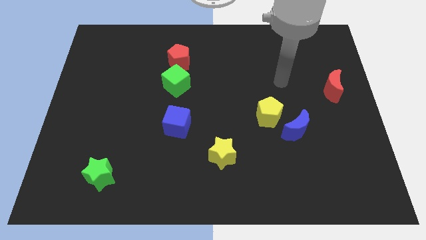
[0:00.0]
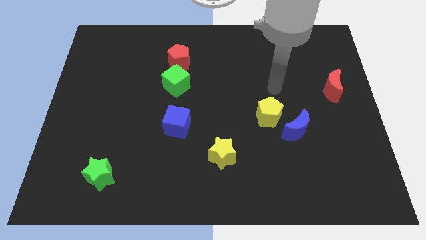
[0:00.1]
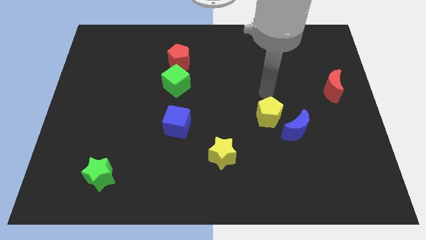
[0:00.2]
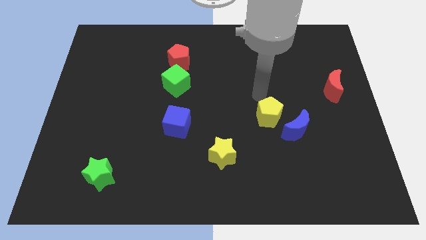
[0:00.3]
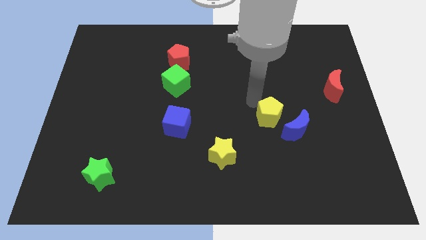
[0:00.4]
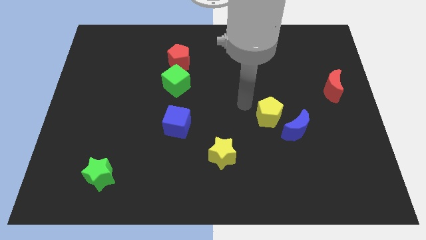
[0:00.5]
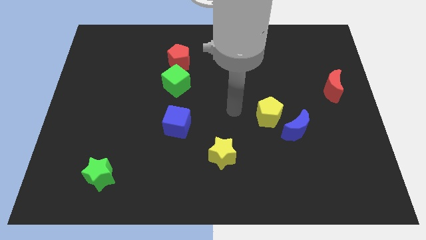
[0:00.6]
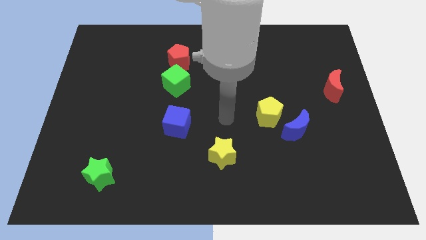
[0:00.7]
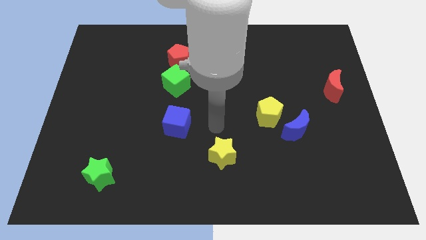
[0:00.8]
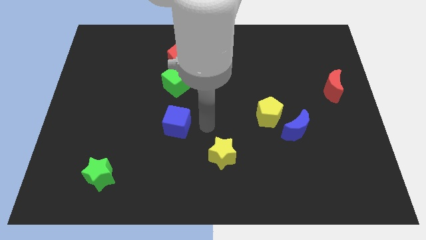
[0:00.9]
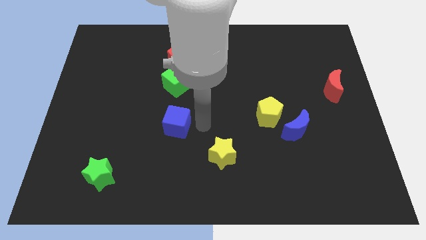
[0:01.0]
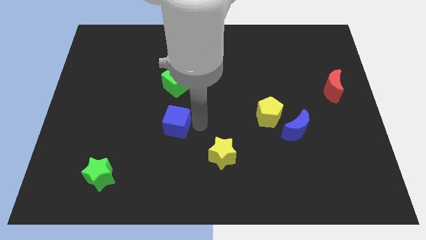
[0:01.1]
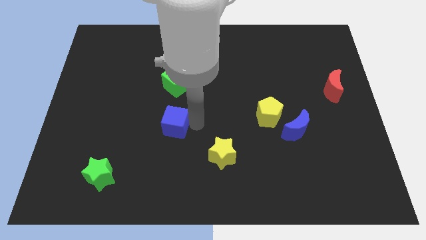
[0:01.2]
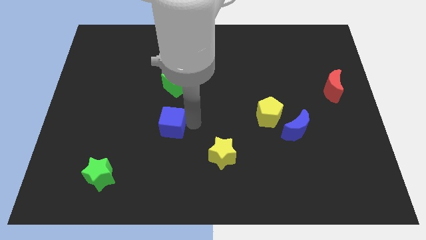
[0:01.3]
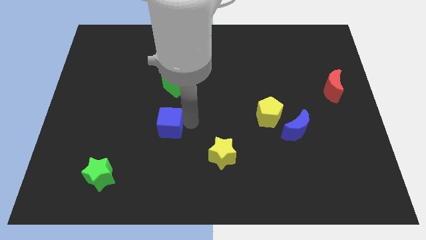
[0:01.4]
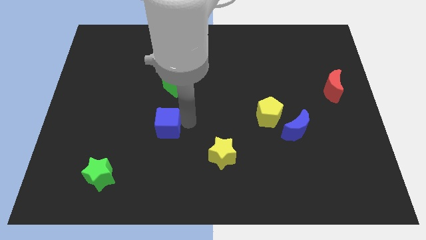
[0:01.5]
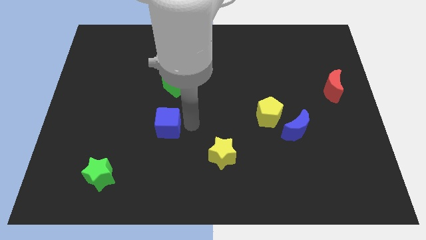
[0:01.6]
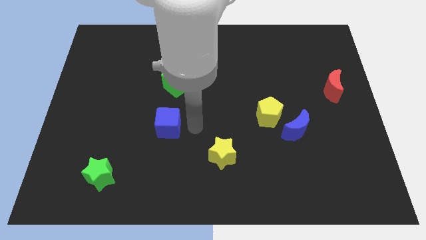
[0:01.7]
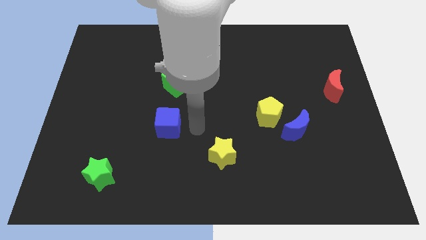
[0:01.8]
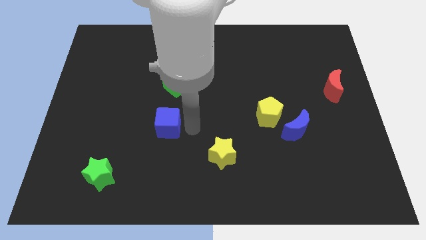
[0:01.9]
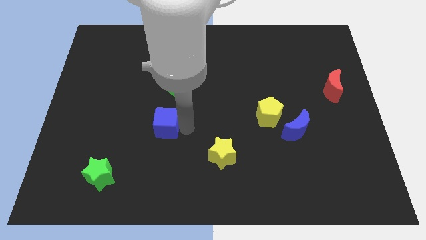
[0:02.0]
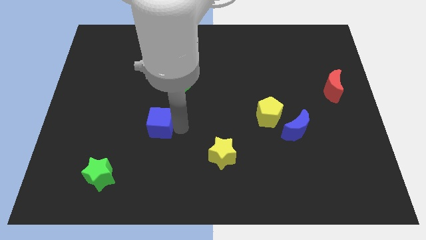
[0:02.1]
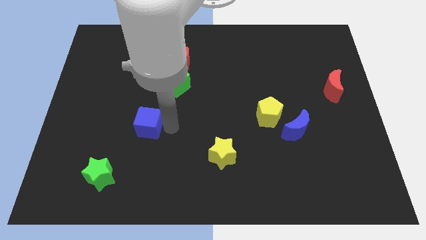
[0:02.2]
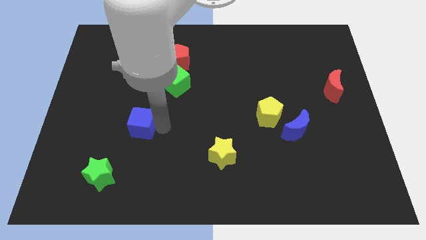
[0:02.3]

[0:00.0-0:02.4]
slightly move the blue cube to the left

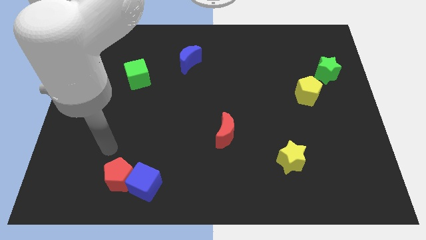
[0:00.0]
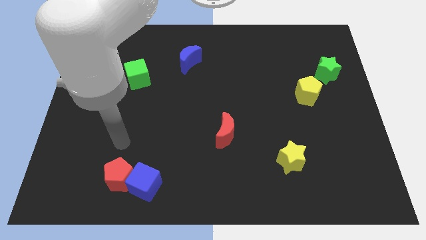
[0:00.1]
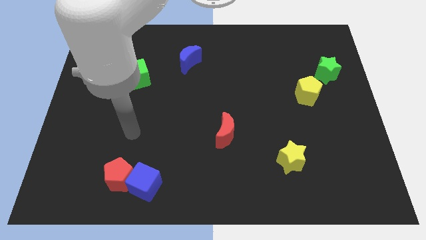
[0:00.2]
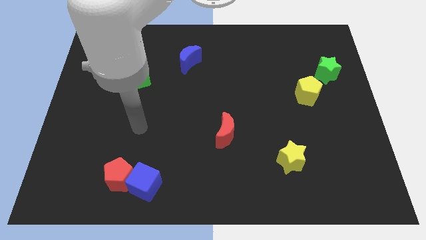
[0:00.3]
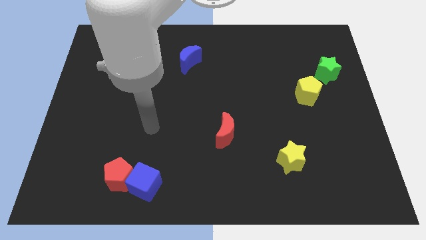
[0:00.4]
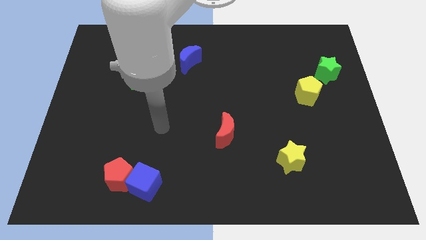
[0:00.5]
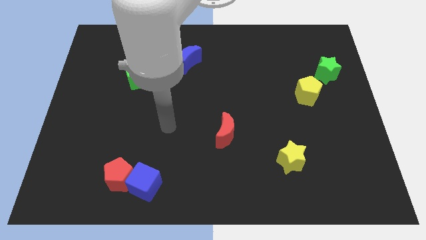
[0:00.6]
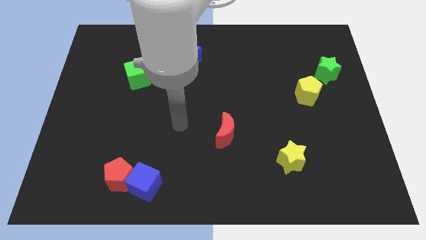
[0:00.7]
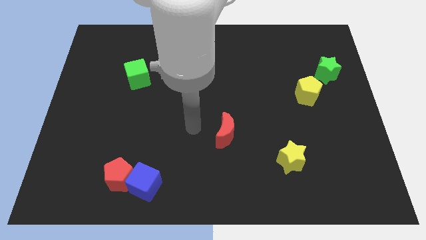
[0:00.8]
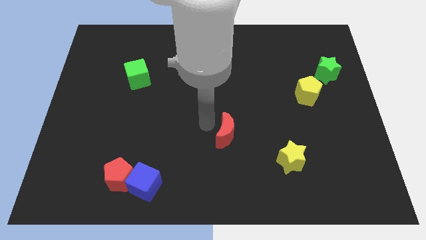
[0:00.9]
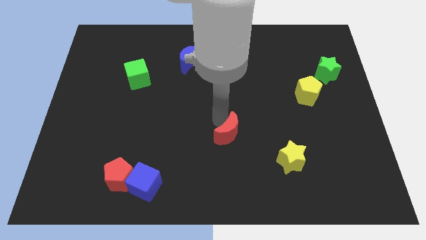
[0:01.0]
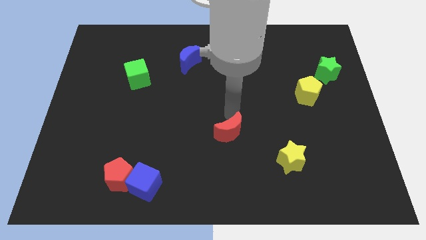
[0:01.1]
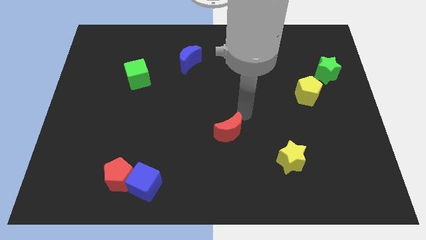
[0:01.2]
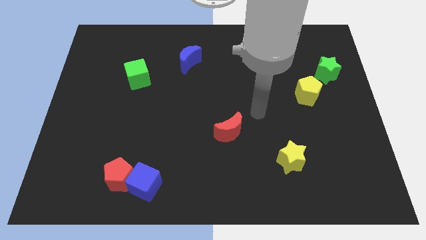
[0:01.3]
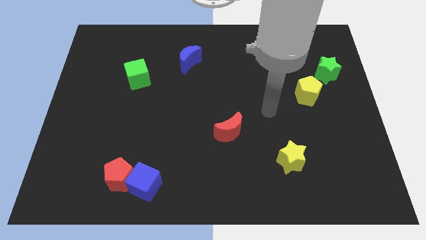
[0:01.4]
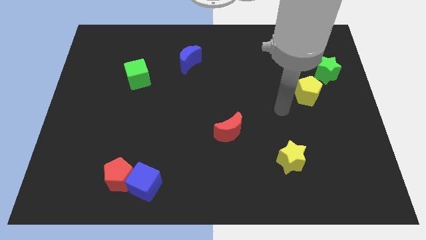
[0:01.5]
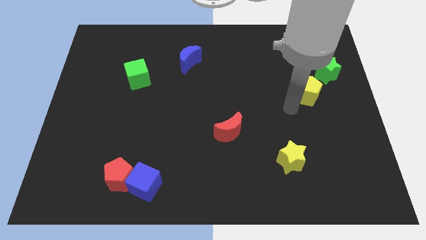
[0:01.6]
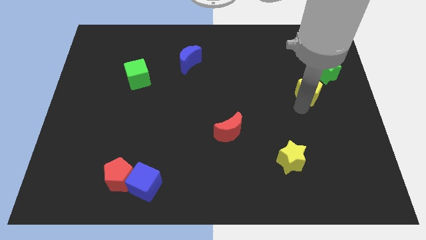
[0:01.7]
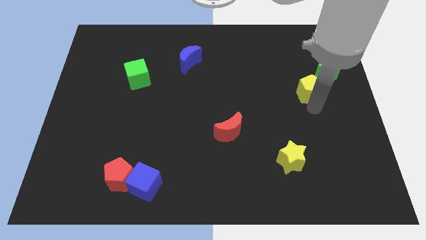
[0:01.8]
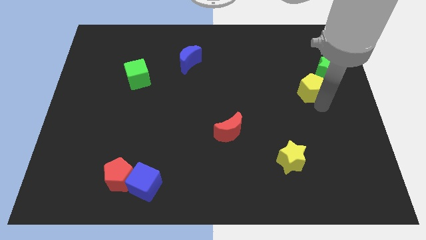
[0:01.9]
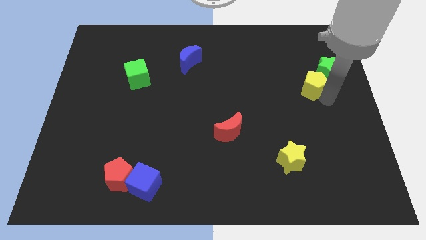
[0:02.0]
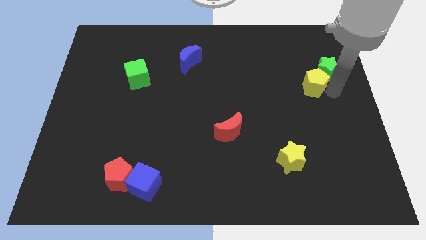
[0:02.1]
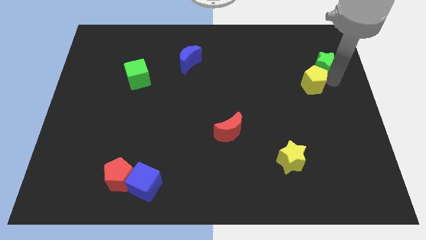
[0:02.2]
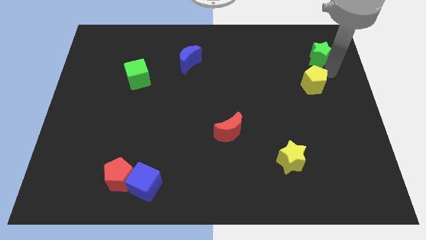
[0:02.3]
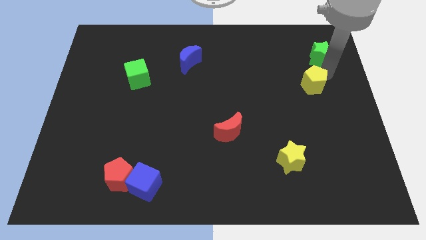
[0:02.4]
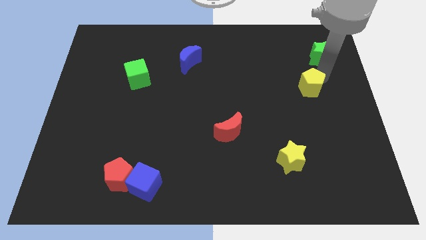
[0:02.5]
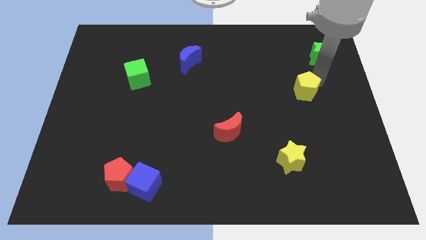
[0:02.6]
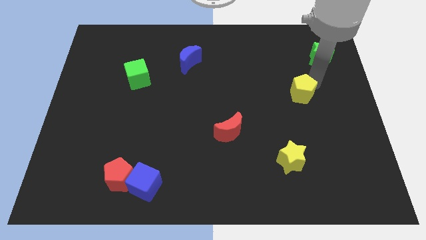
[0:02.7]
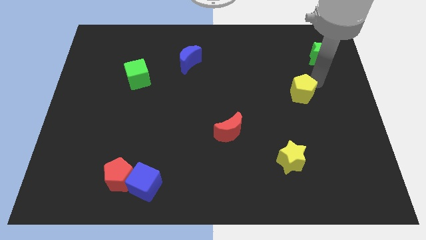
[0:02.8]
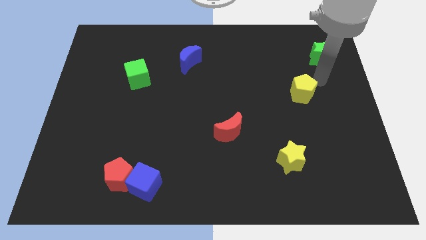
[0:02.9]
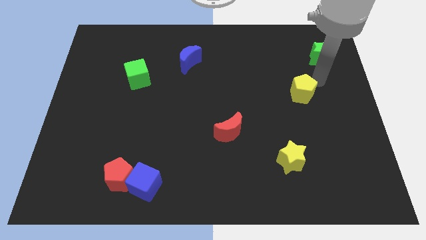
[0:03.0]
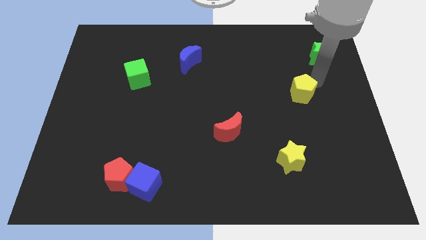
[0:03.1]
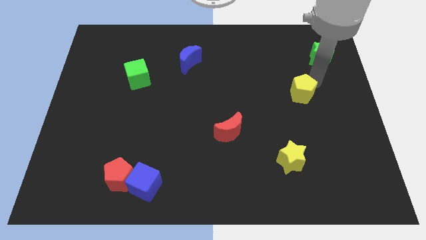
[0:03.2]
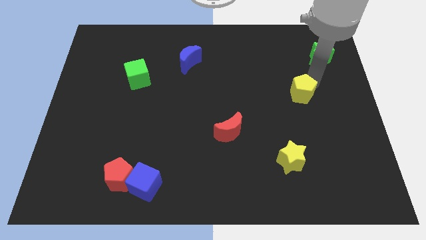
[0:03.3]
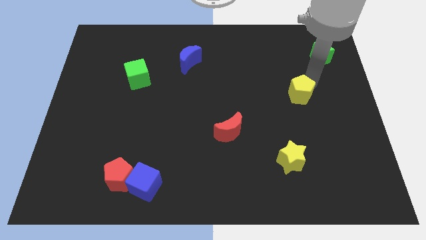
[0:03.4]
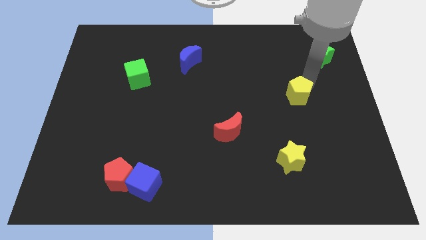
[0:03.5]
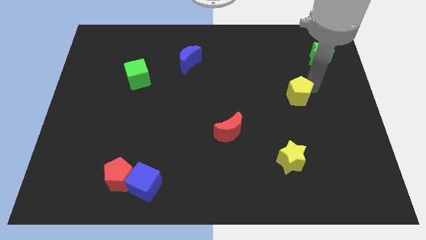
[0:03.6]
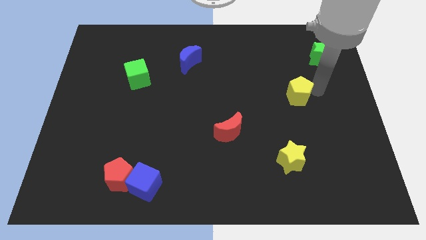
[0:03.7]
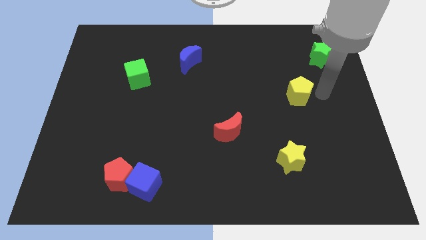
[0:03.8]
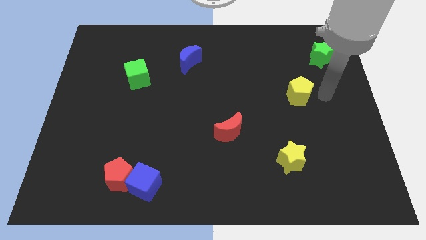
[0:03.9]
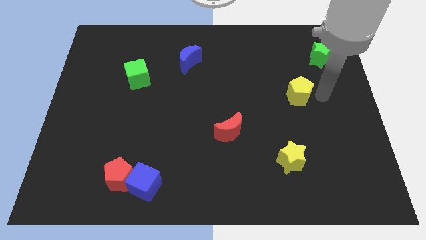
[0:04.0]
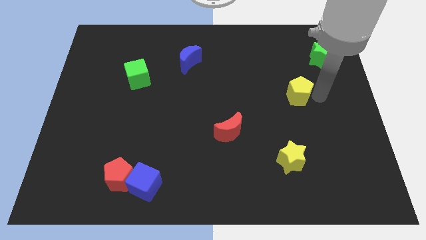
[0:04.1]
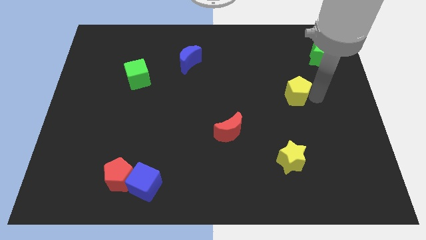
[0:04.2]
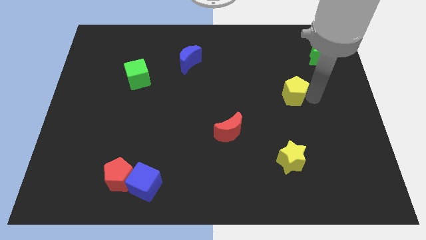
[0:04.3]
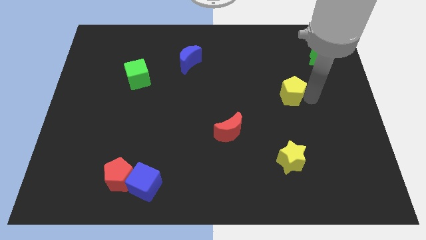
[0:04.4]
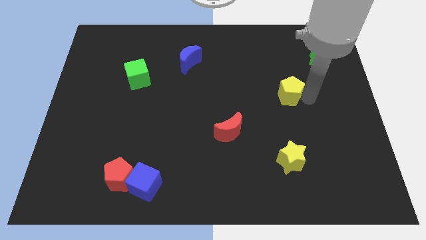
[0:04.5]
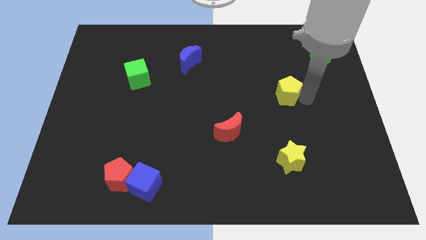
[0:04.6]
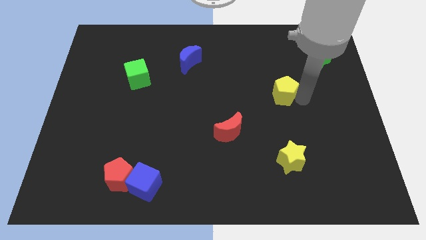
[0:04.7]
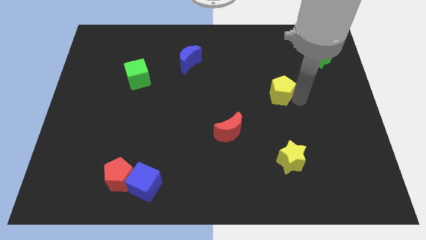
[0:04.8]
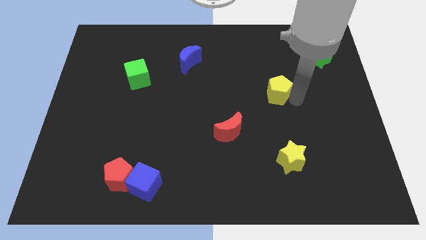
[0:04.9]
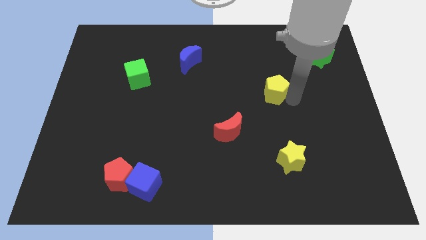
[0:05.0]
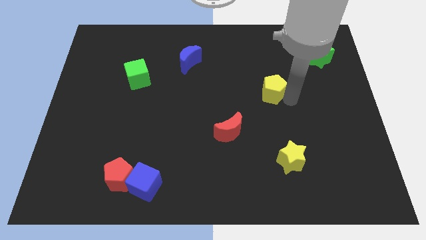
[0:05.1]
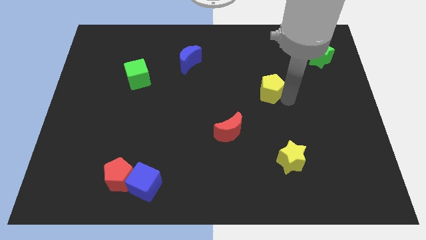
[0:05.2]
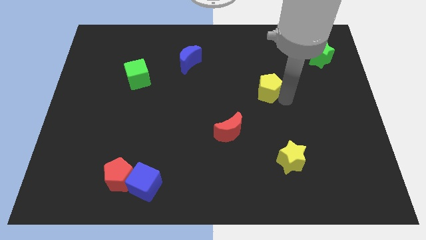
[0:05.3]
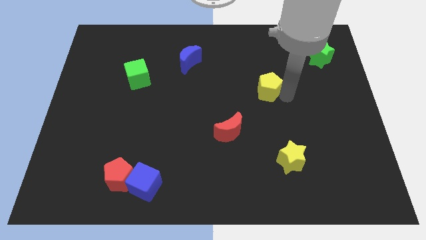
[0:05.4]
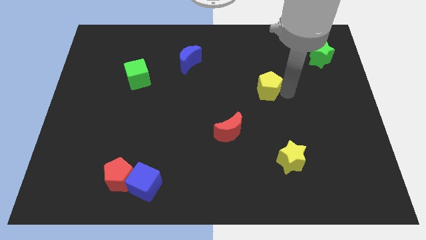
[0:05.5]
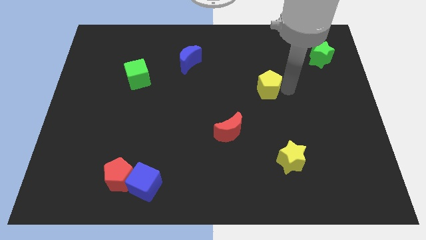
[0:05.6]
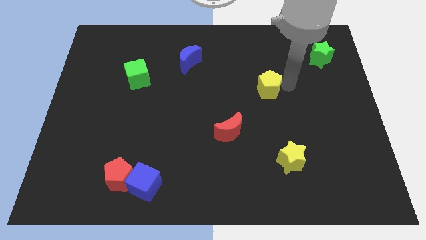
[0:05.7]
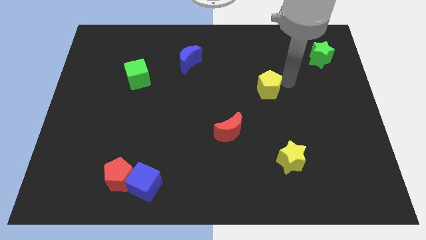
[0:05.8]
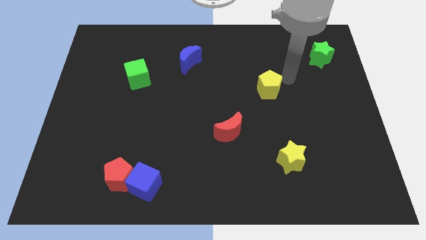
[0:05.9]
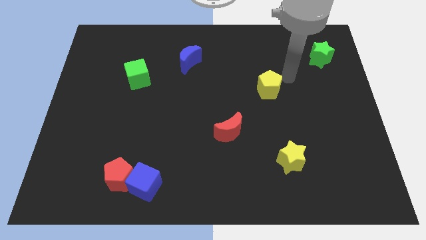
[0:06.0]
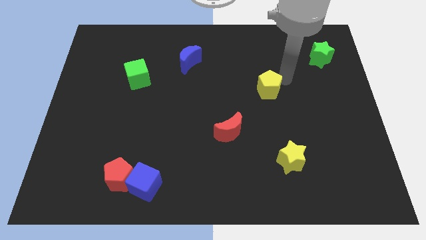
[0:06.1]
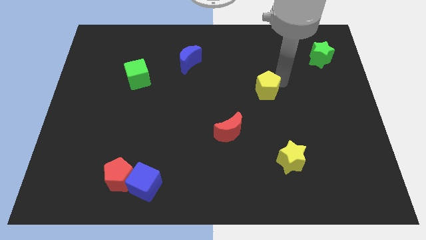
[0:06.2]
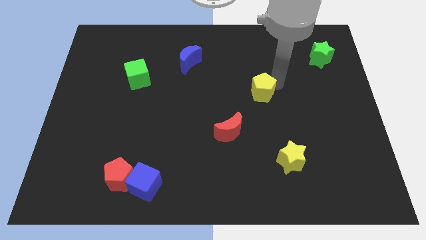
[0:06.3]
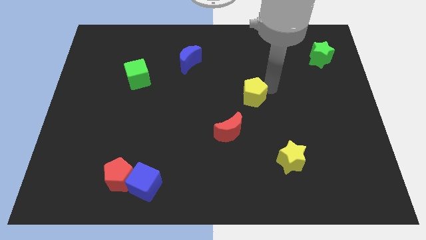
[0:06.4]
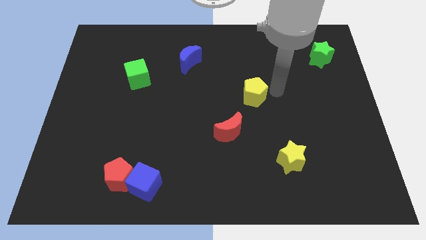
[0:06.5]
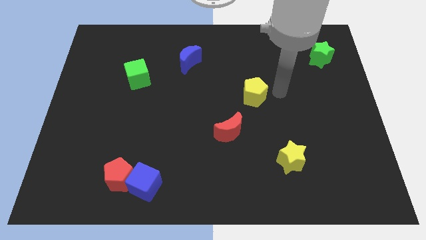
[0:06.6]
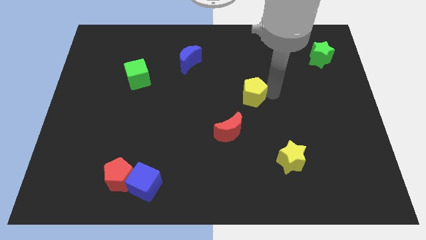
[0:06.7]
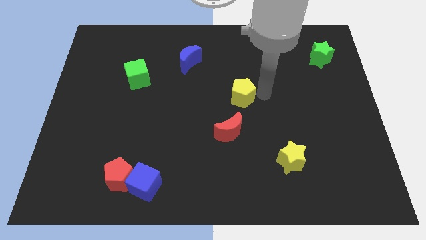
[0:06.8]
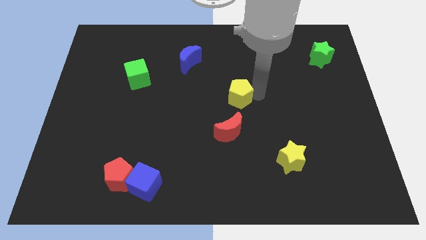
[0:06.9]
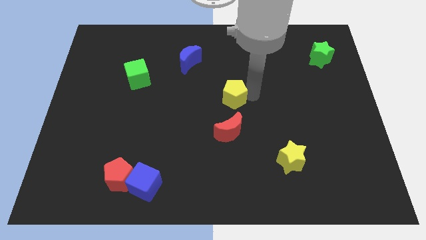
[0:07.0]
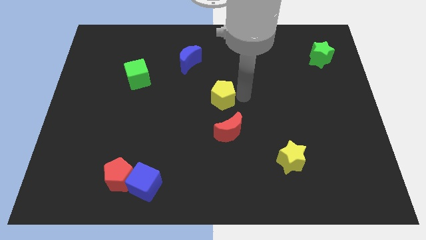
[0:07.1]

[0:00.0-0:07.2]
slide the yellow pentagon to the left
